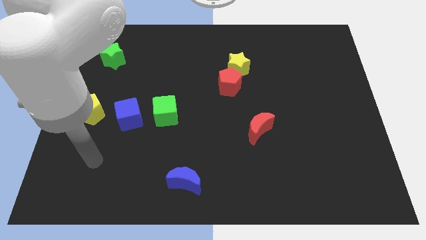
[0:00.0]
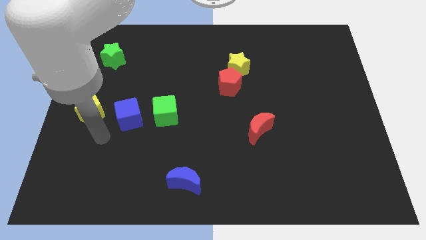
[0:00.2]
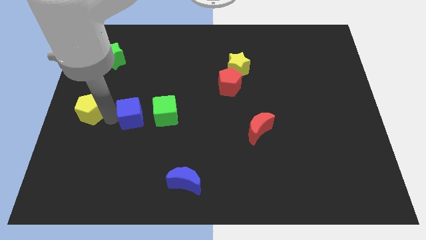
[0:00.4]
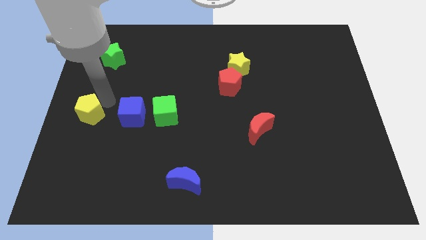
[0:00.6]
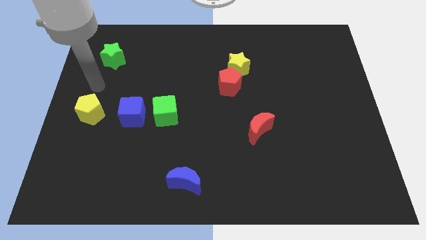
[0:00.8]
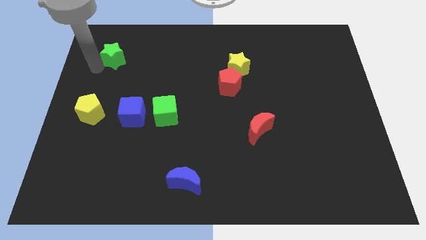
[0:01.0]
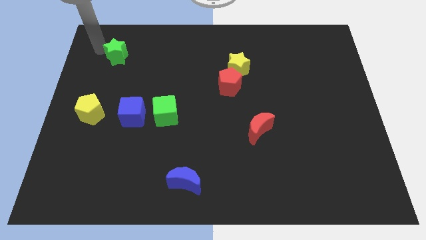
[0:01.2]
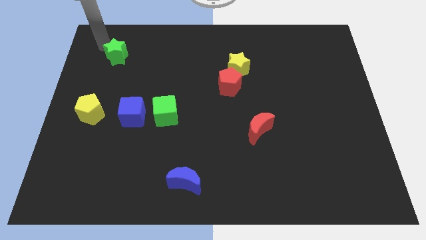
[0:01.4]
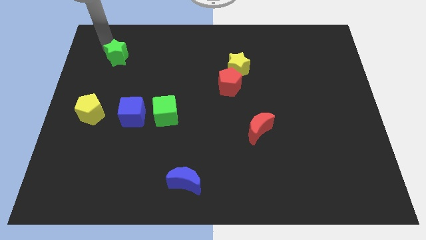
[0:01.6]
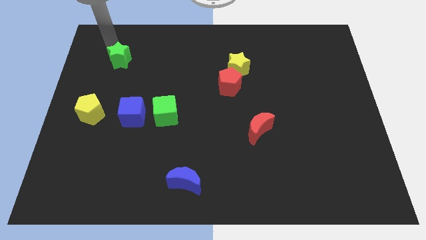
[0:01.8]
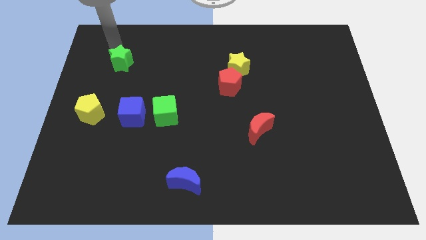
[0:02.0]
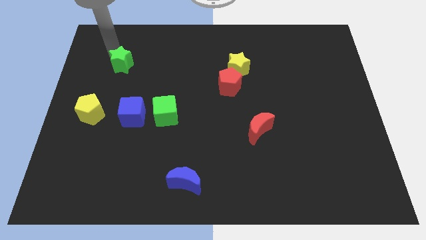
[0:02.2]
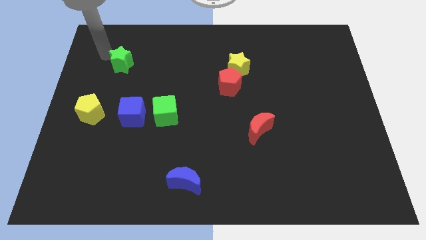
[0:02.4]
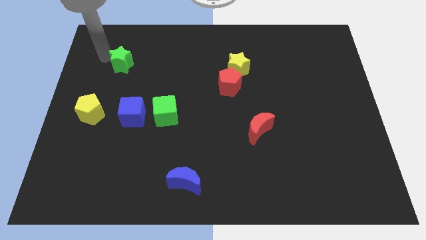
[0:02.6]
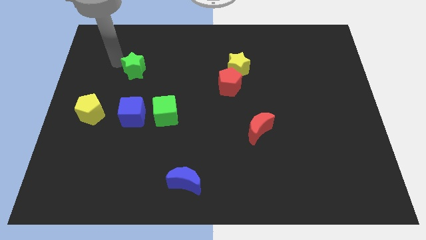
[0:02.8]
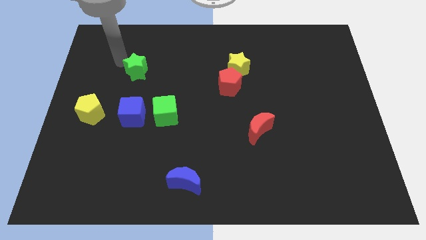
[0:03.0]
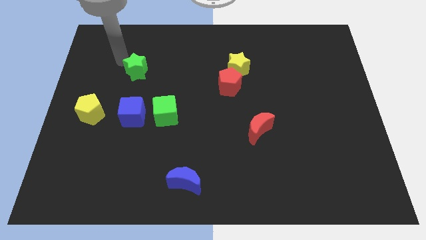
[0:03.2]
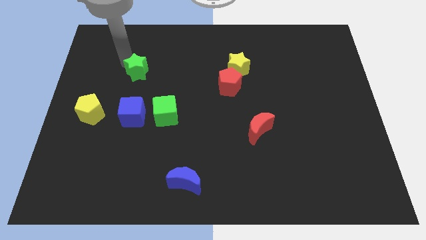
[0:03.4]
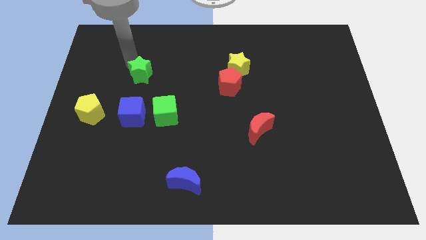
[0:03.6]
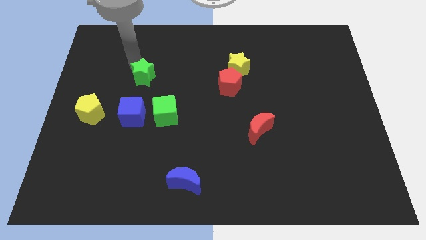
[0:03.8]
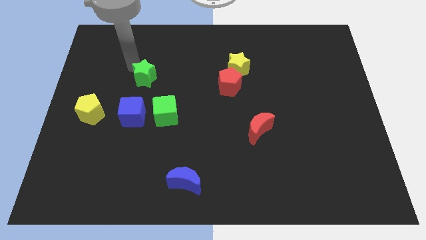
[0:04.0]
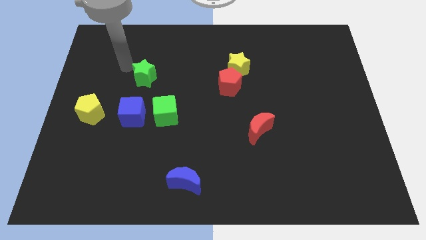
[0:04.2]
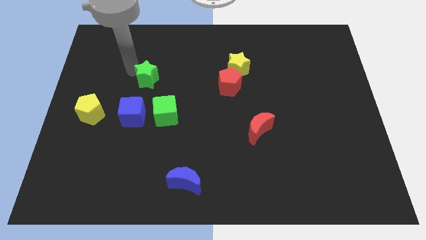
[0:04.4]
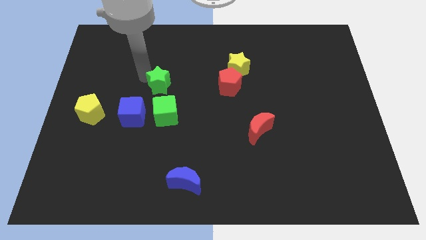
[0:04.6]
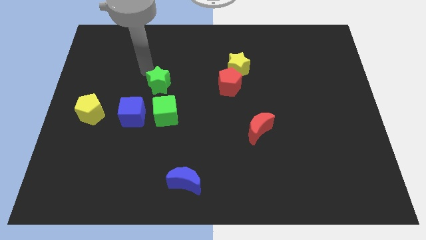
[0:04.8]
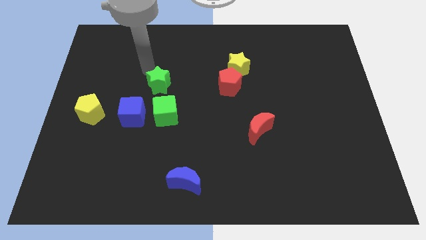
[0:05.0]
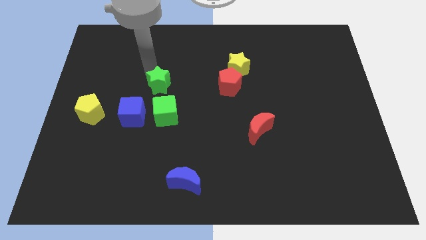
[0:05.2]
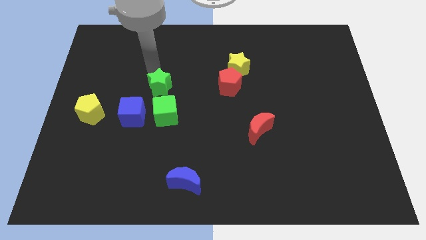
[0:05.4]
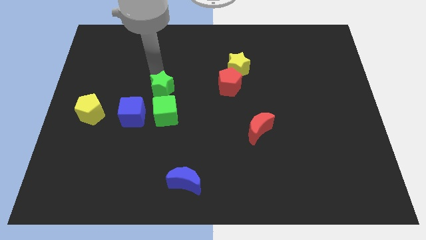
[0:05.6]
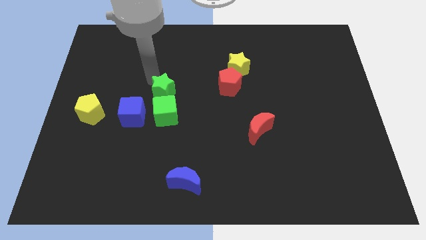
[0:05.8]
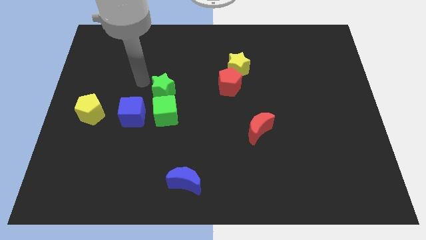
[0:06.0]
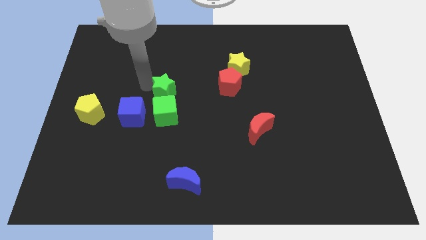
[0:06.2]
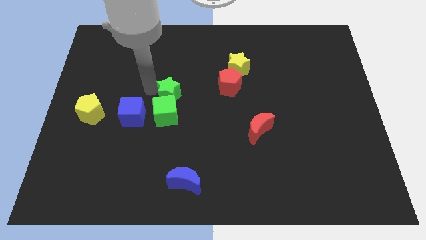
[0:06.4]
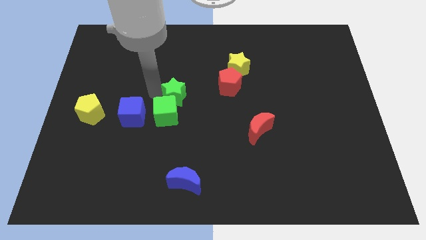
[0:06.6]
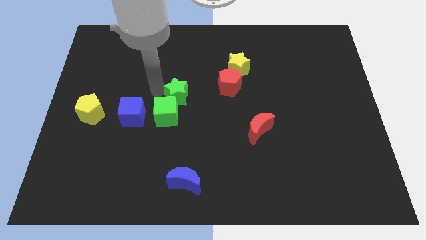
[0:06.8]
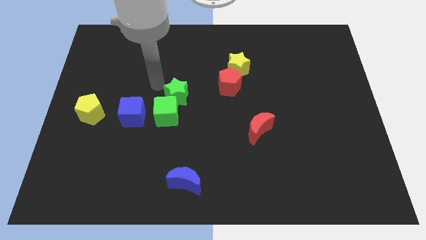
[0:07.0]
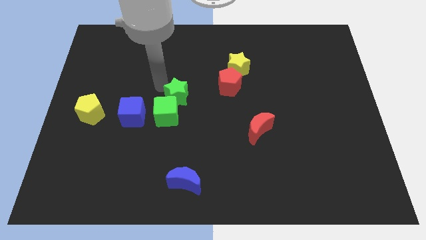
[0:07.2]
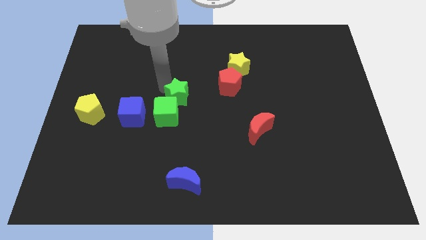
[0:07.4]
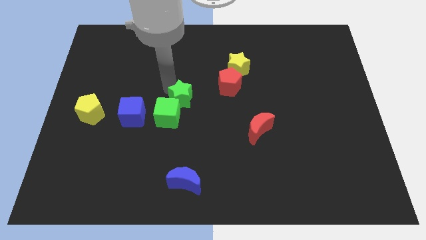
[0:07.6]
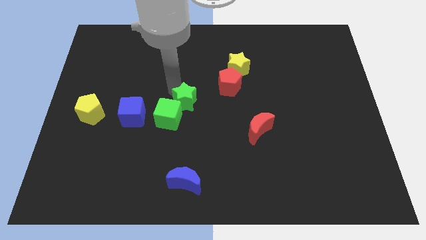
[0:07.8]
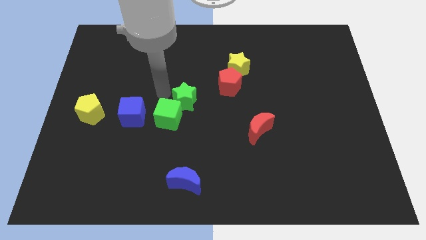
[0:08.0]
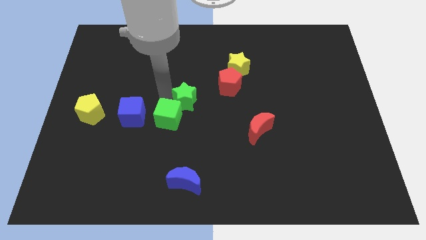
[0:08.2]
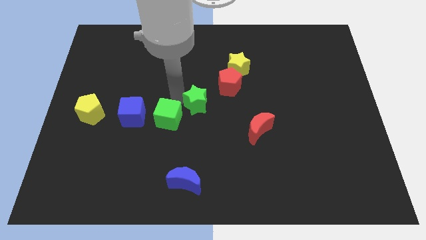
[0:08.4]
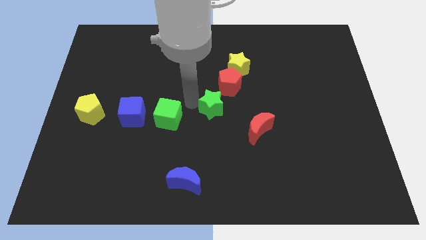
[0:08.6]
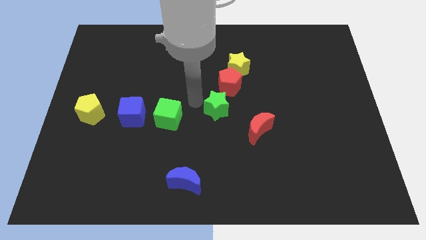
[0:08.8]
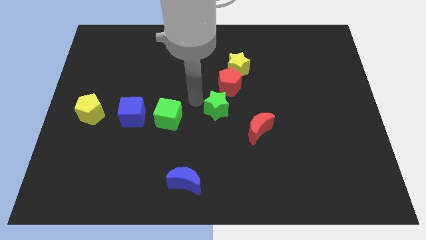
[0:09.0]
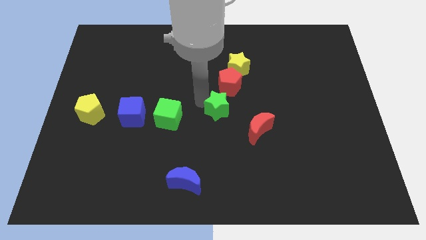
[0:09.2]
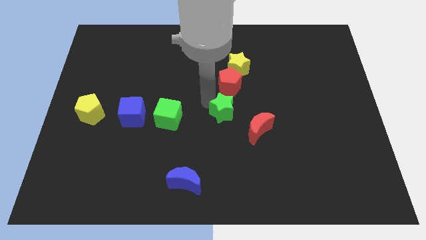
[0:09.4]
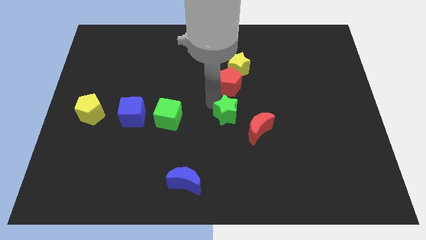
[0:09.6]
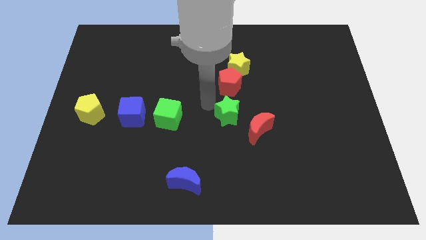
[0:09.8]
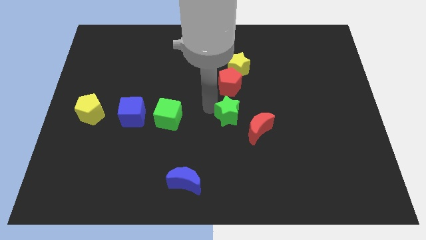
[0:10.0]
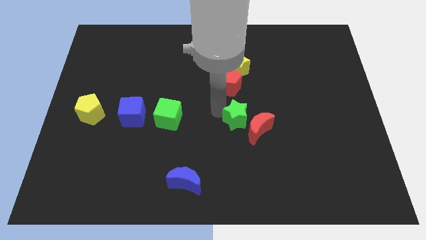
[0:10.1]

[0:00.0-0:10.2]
move the green star close to the red moon

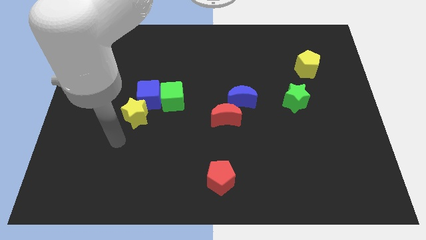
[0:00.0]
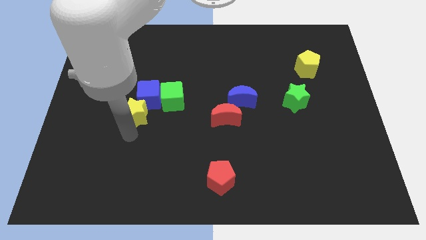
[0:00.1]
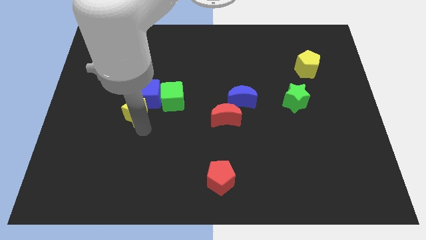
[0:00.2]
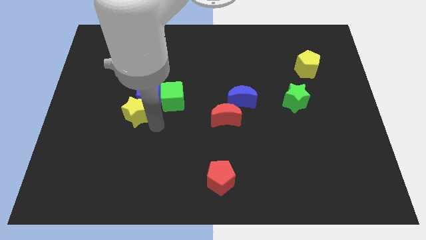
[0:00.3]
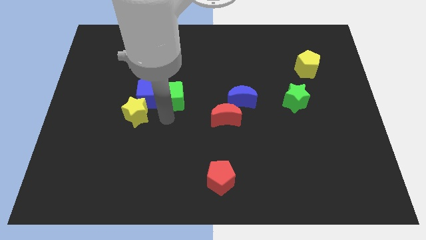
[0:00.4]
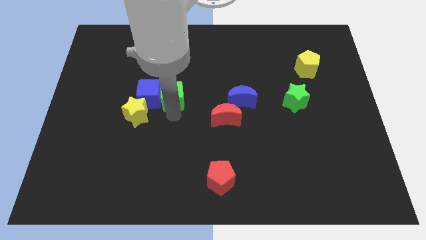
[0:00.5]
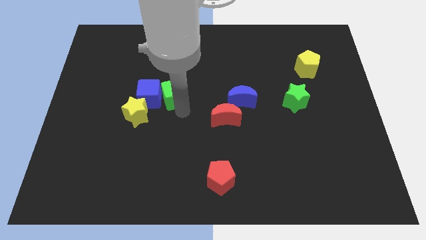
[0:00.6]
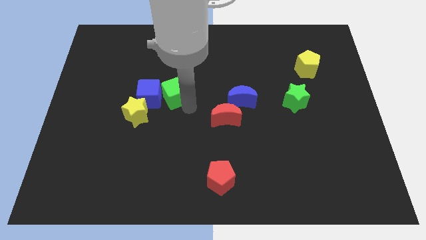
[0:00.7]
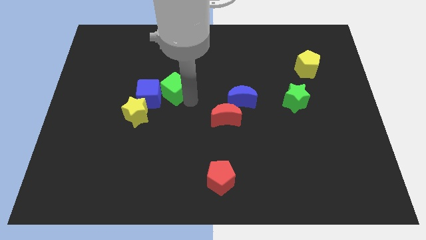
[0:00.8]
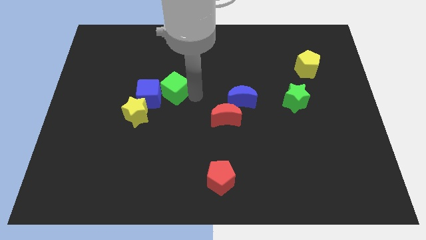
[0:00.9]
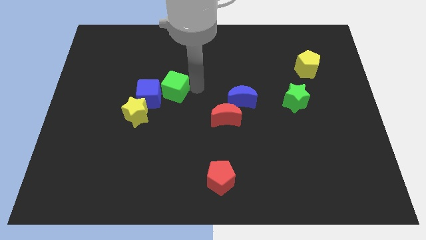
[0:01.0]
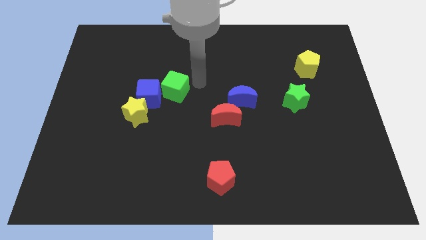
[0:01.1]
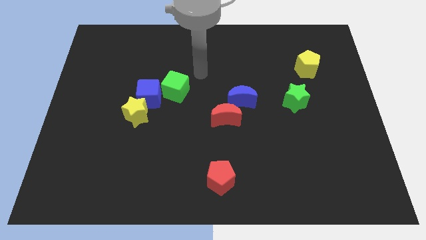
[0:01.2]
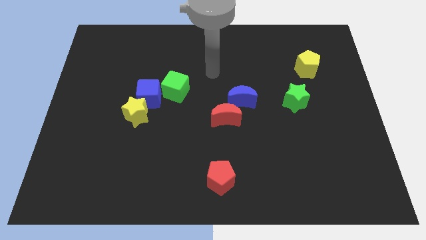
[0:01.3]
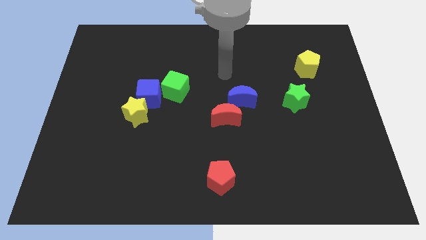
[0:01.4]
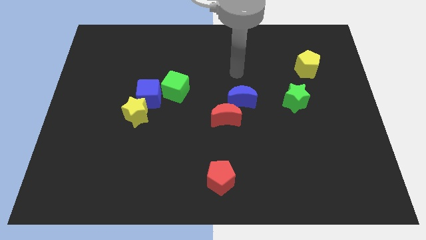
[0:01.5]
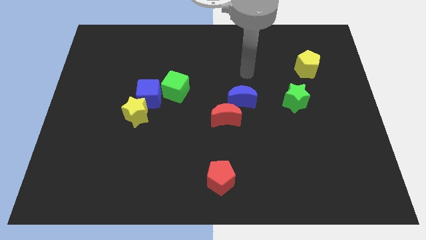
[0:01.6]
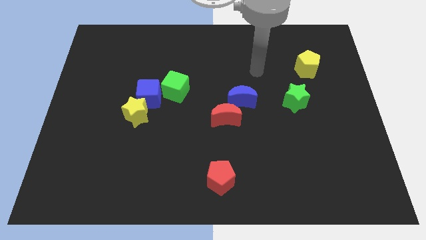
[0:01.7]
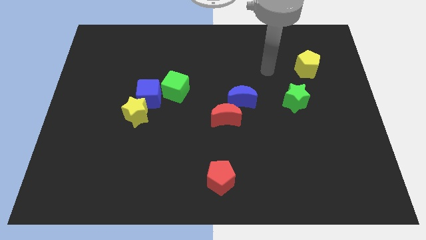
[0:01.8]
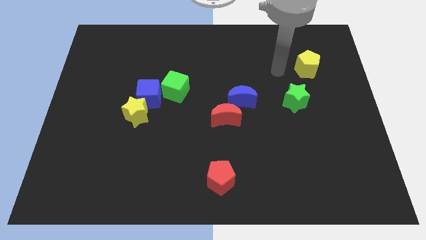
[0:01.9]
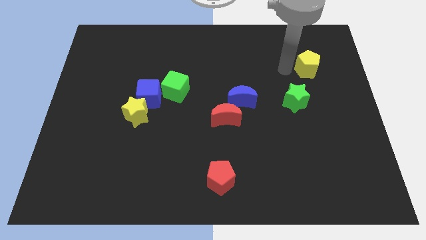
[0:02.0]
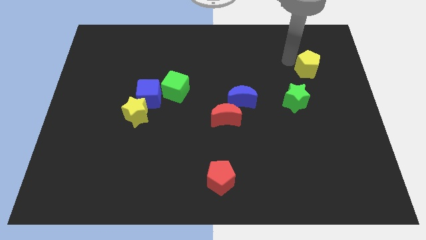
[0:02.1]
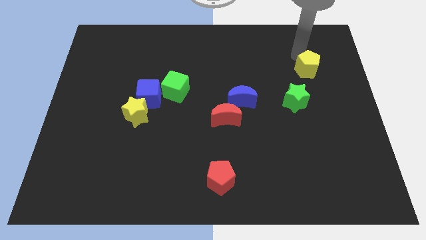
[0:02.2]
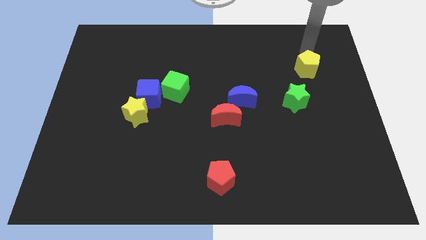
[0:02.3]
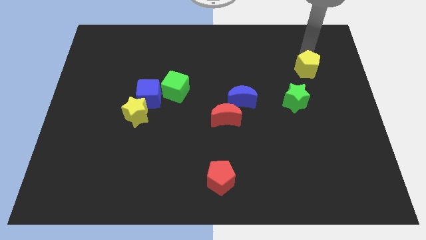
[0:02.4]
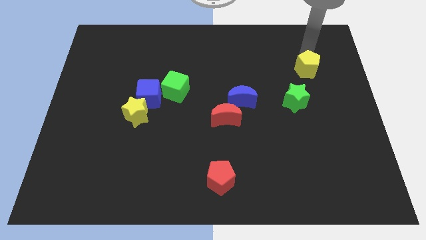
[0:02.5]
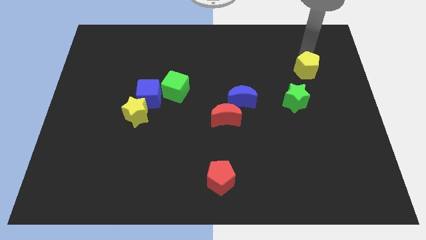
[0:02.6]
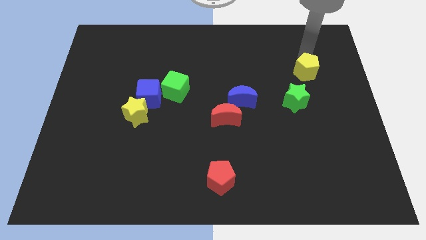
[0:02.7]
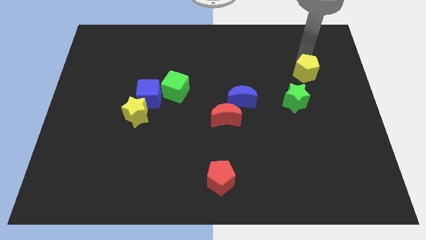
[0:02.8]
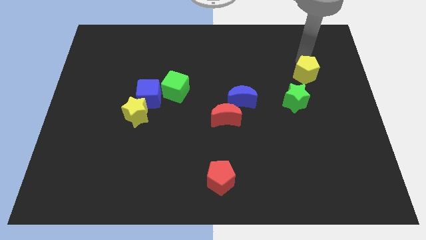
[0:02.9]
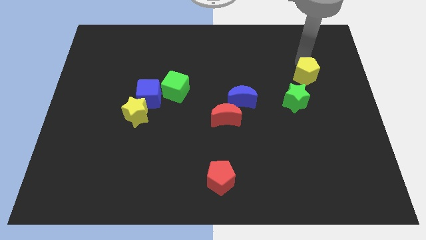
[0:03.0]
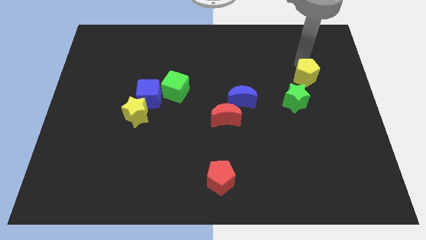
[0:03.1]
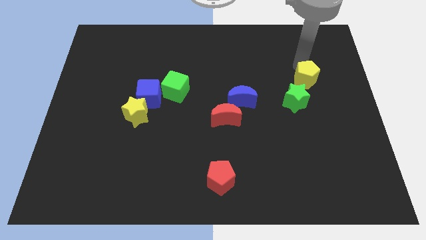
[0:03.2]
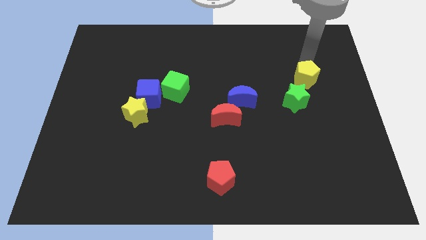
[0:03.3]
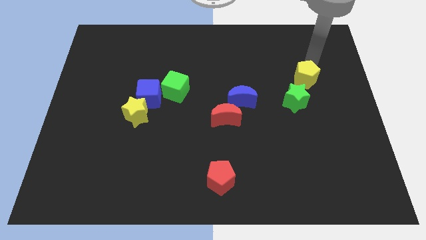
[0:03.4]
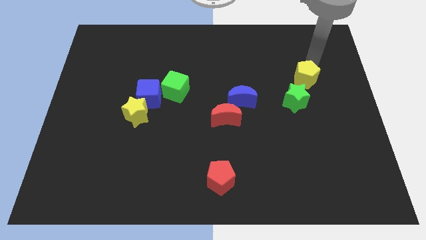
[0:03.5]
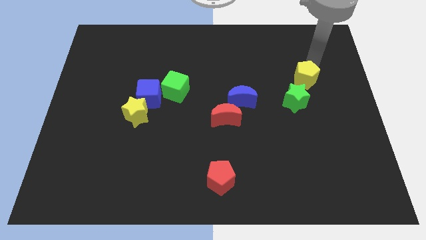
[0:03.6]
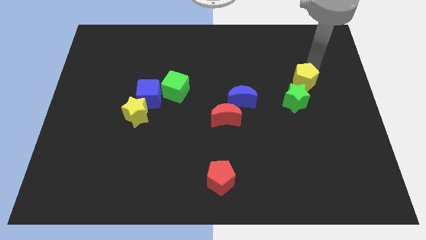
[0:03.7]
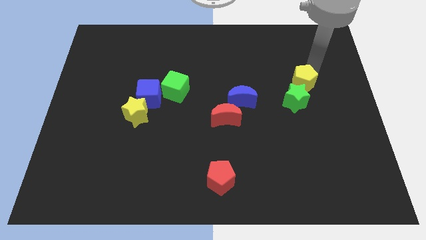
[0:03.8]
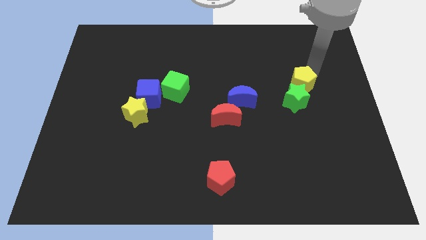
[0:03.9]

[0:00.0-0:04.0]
put the yellow pentagon next to the green star
